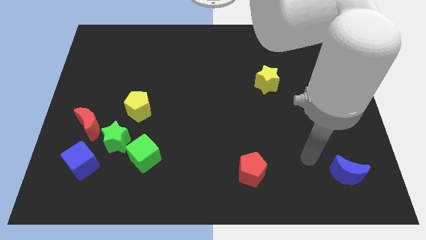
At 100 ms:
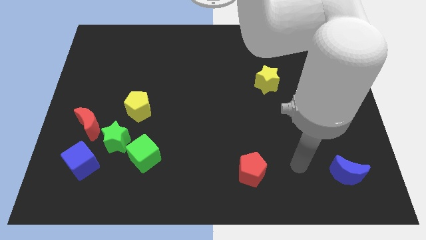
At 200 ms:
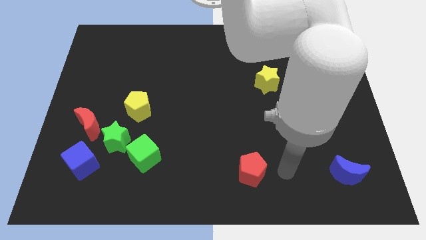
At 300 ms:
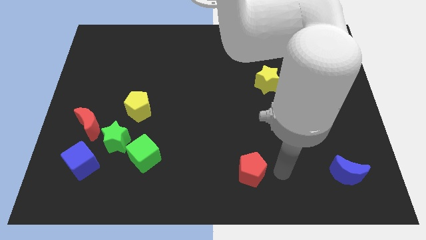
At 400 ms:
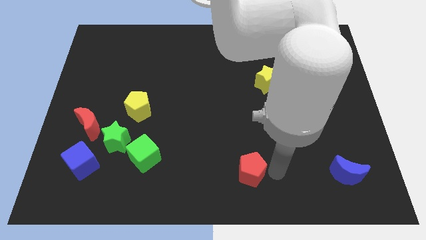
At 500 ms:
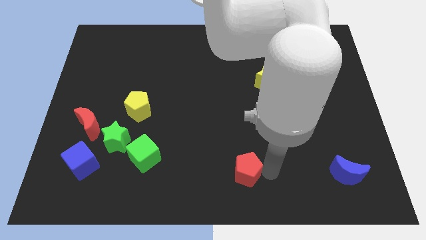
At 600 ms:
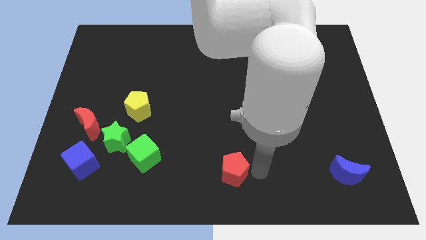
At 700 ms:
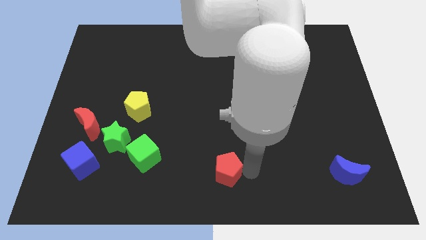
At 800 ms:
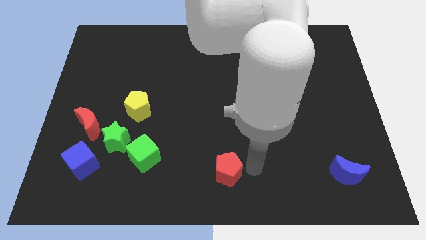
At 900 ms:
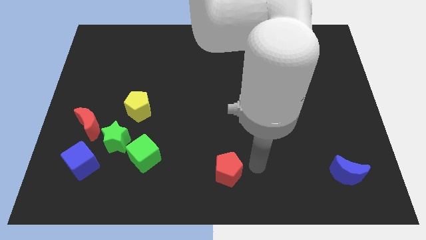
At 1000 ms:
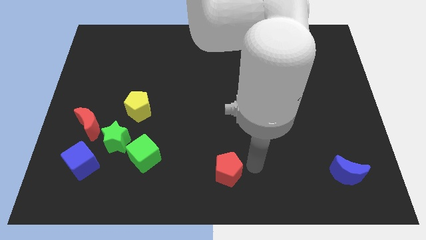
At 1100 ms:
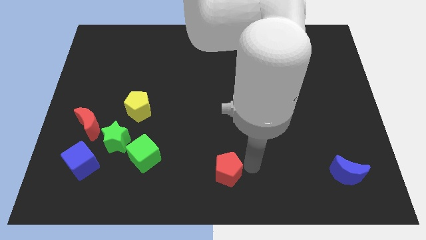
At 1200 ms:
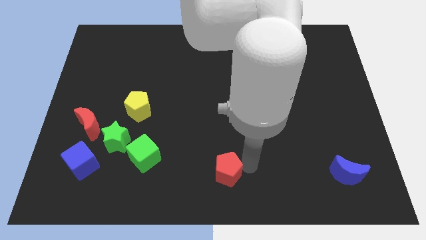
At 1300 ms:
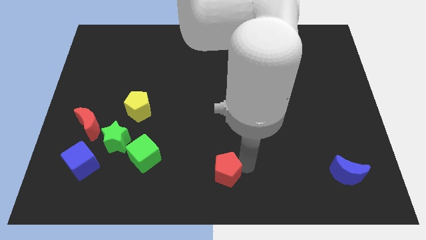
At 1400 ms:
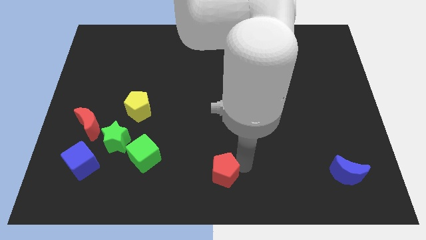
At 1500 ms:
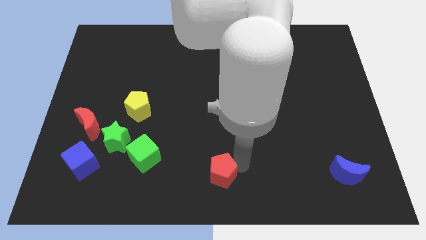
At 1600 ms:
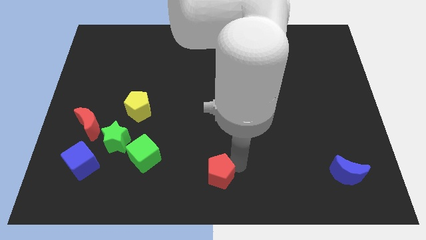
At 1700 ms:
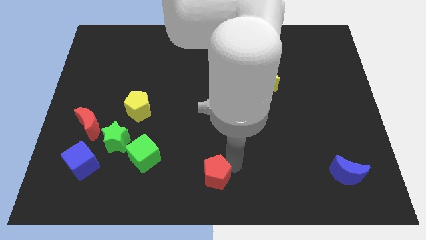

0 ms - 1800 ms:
push the red pentagon left somewhat

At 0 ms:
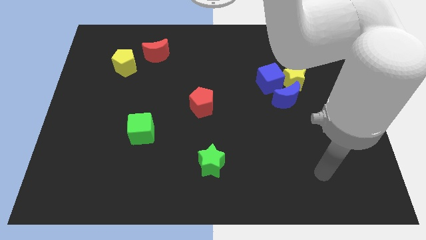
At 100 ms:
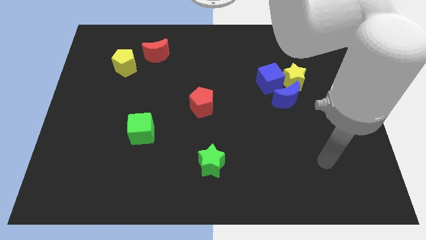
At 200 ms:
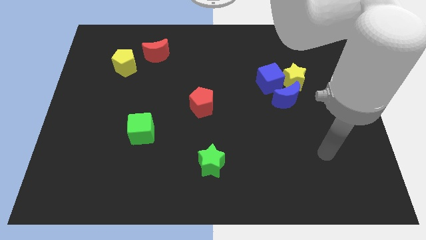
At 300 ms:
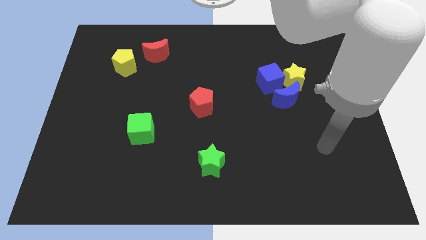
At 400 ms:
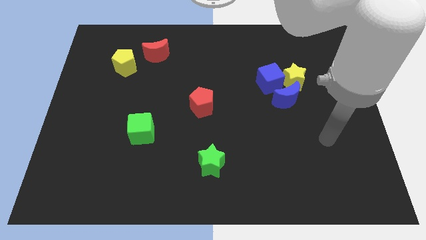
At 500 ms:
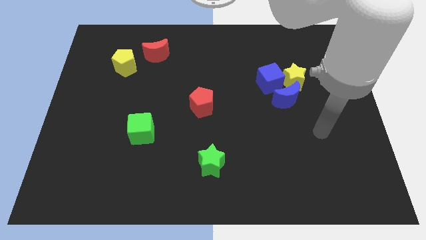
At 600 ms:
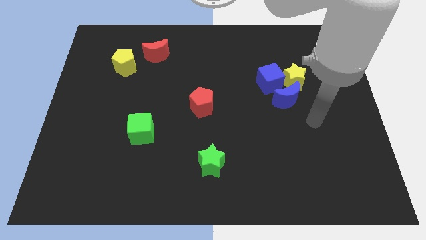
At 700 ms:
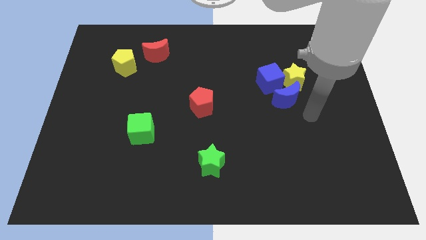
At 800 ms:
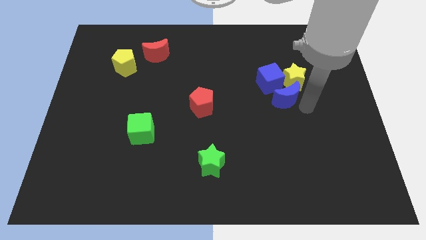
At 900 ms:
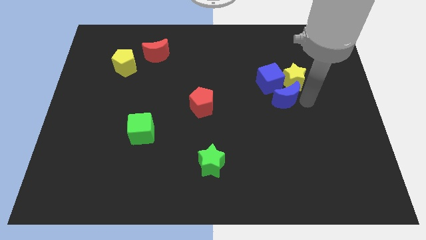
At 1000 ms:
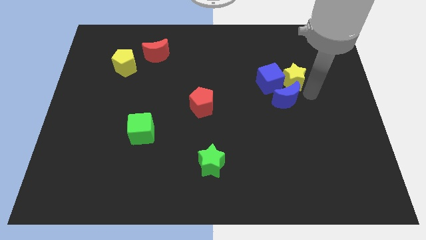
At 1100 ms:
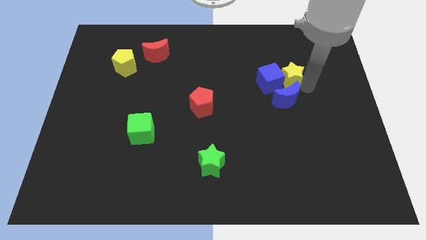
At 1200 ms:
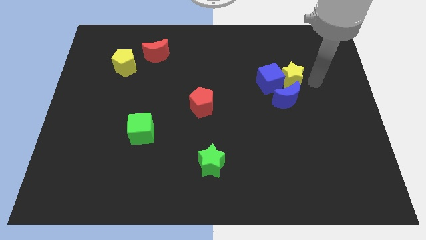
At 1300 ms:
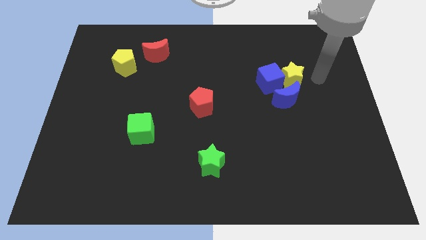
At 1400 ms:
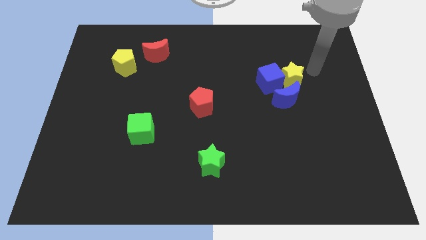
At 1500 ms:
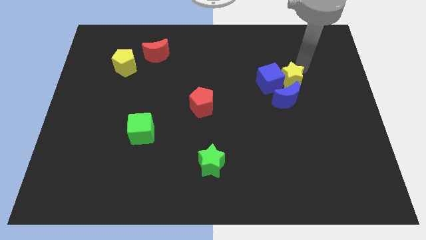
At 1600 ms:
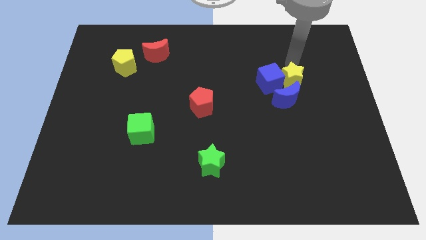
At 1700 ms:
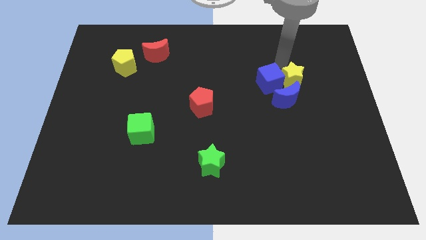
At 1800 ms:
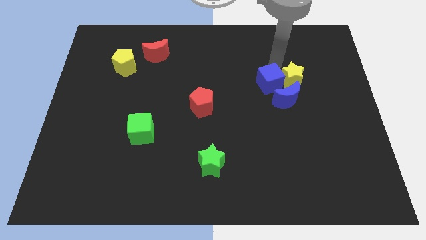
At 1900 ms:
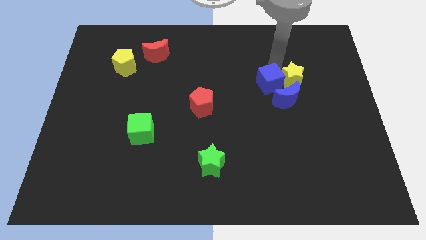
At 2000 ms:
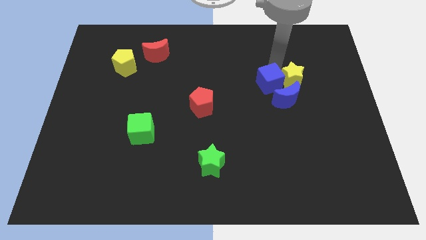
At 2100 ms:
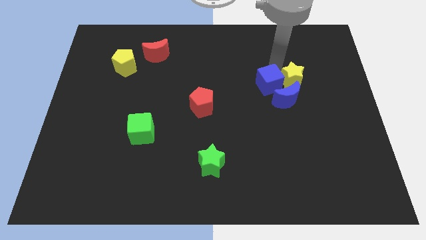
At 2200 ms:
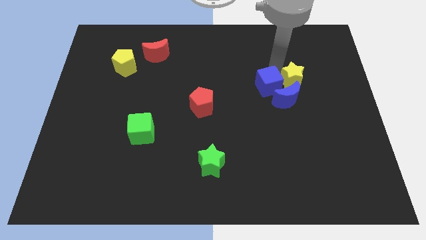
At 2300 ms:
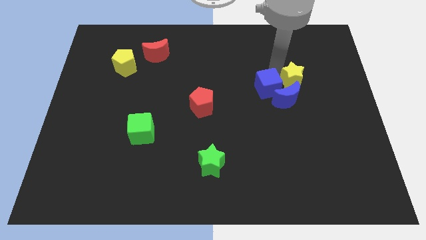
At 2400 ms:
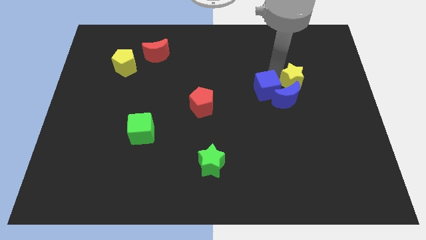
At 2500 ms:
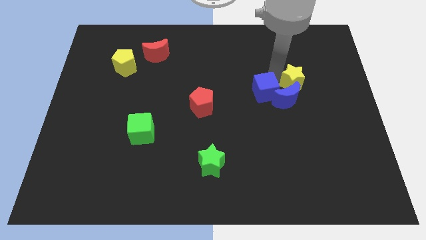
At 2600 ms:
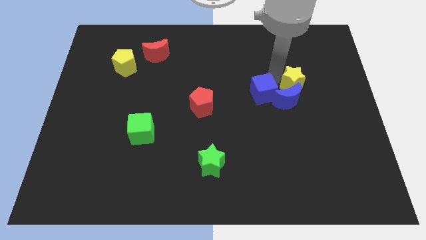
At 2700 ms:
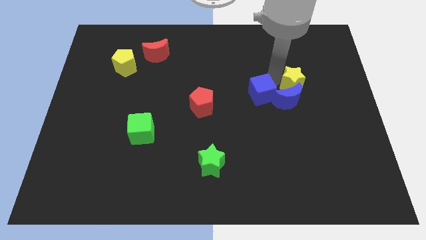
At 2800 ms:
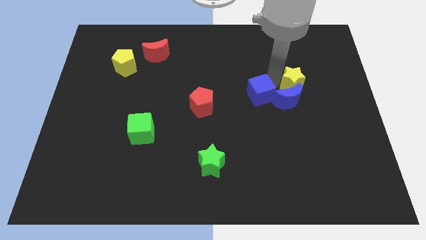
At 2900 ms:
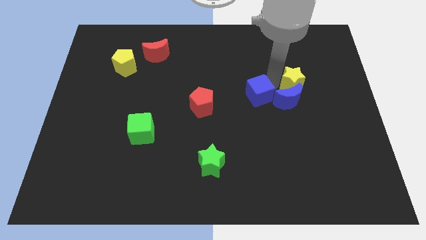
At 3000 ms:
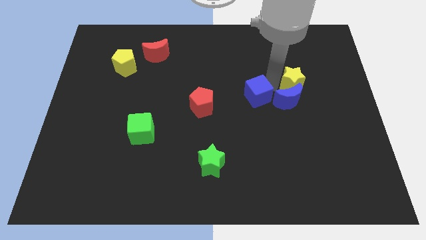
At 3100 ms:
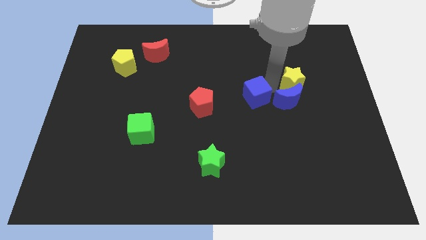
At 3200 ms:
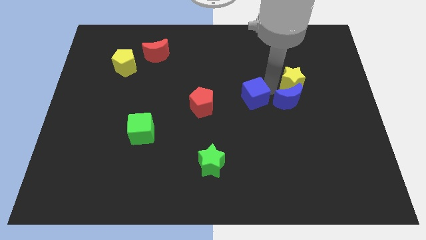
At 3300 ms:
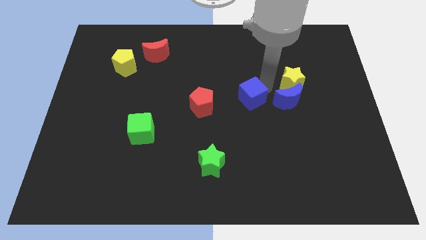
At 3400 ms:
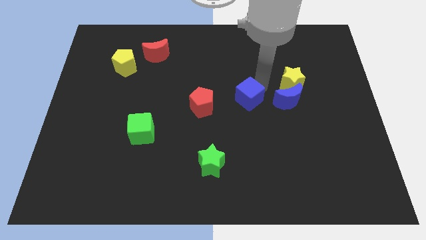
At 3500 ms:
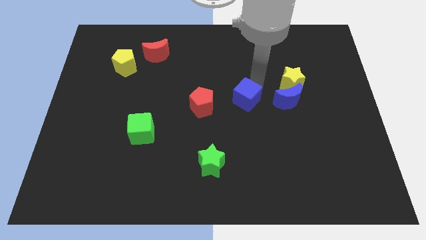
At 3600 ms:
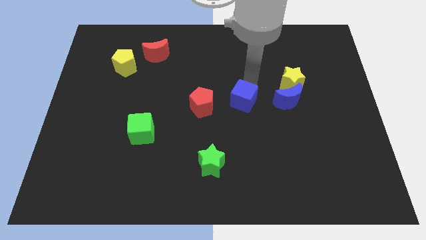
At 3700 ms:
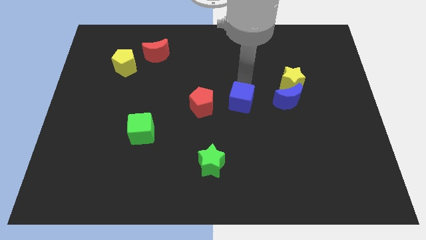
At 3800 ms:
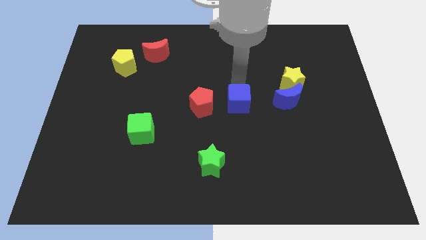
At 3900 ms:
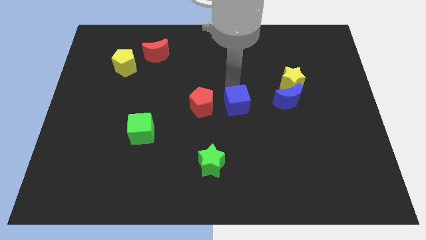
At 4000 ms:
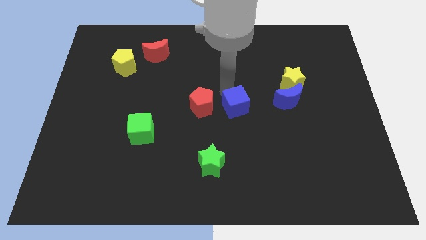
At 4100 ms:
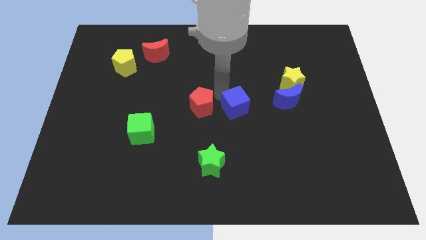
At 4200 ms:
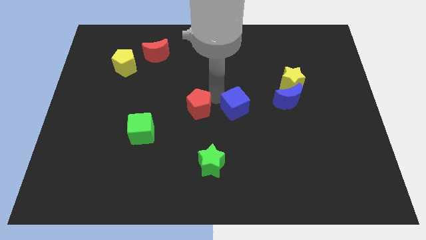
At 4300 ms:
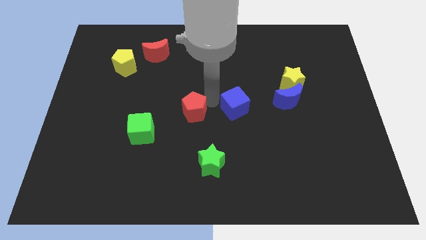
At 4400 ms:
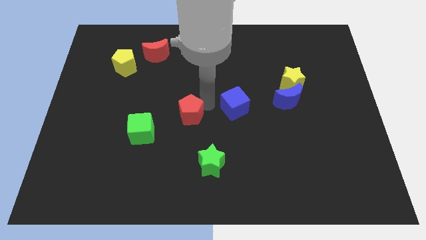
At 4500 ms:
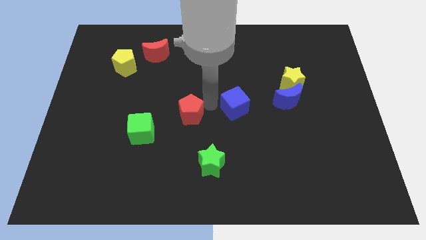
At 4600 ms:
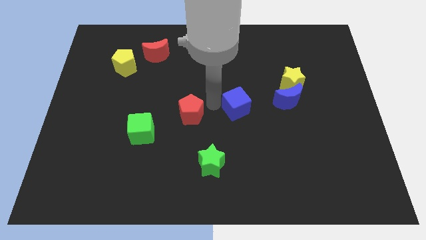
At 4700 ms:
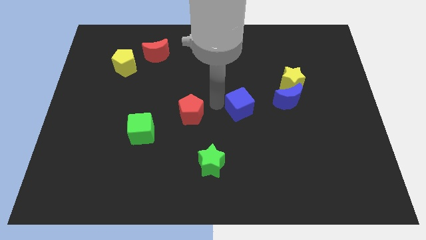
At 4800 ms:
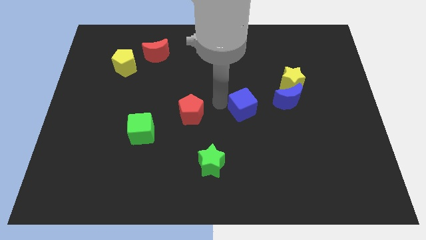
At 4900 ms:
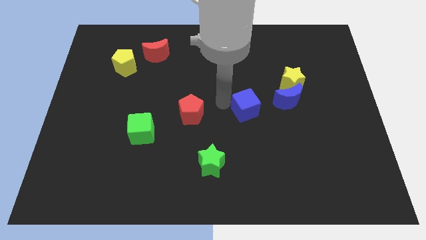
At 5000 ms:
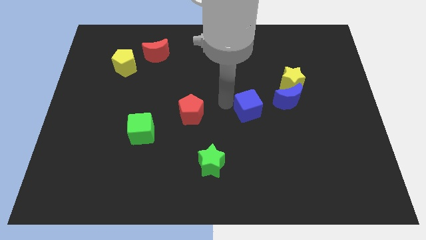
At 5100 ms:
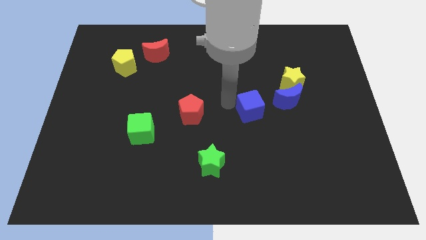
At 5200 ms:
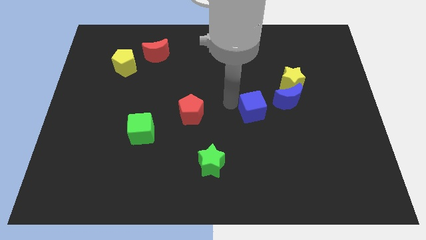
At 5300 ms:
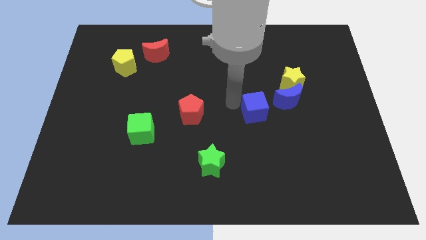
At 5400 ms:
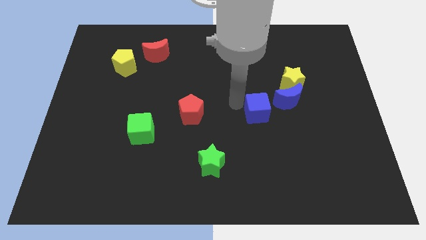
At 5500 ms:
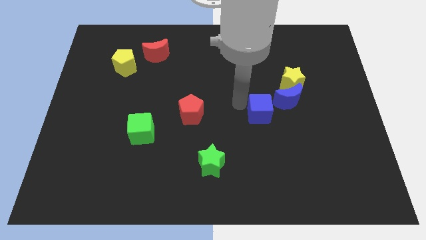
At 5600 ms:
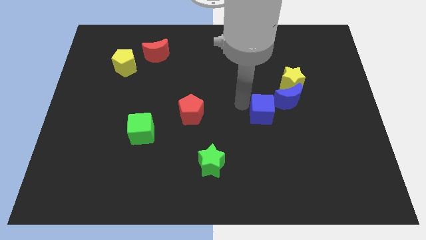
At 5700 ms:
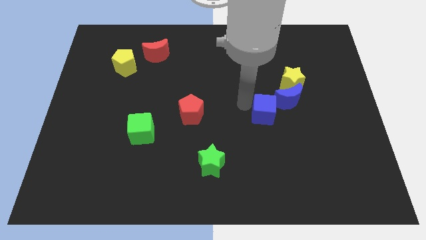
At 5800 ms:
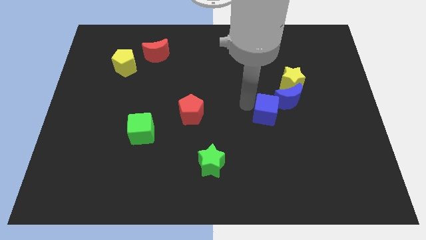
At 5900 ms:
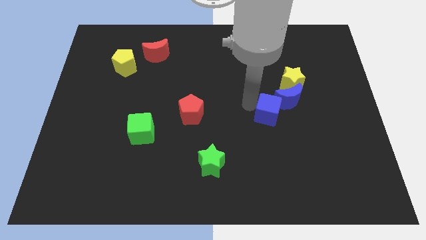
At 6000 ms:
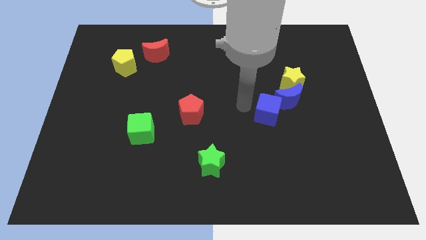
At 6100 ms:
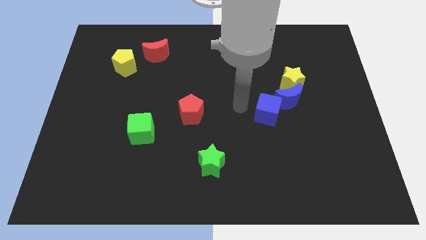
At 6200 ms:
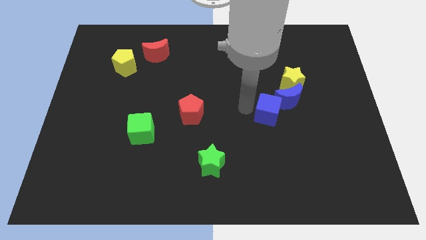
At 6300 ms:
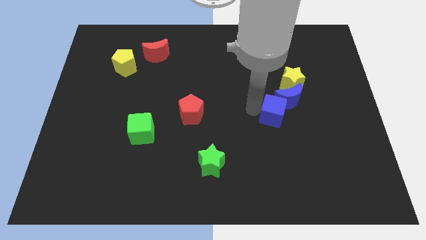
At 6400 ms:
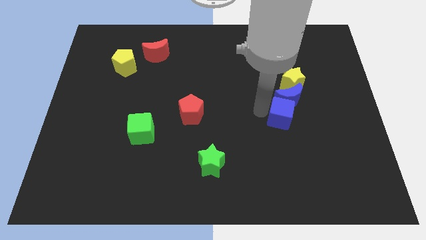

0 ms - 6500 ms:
slightly push the blue cube downwards and then to the right

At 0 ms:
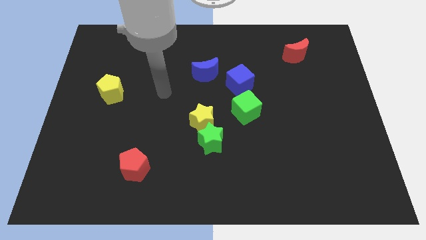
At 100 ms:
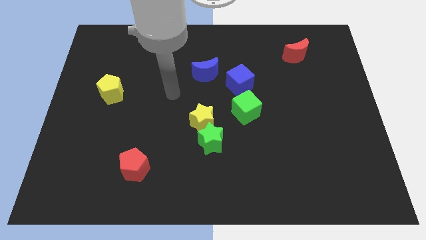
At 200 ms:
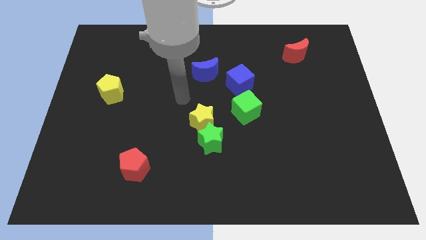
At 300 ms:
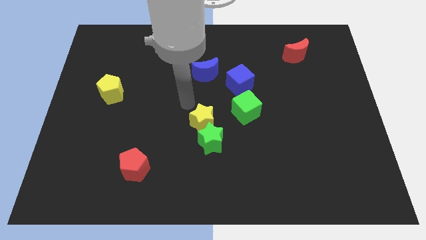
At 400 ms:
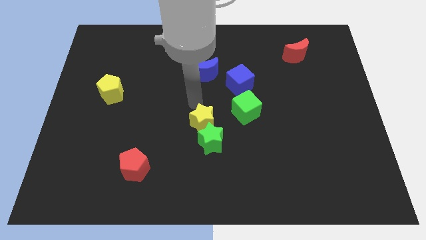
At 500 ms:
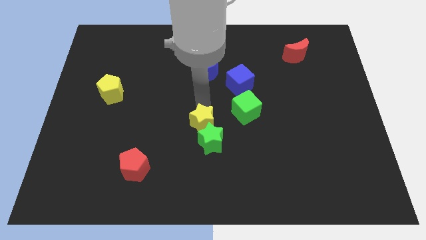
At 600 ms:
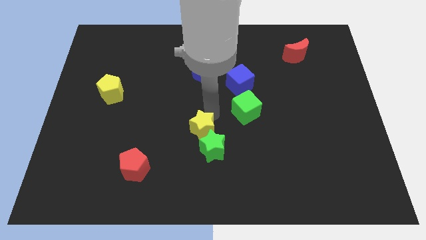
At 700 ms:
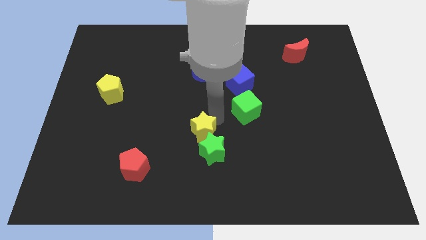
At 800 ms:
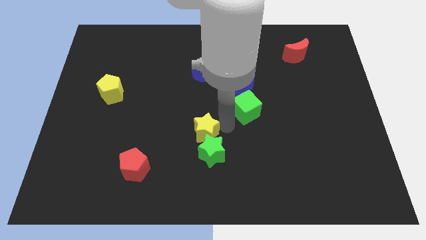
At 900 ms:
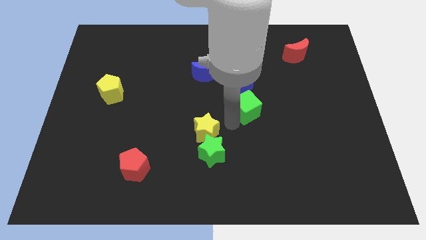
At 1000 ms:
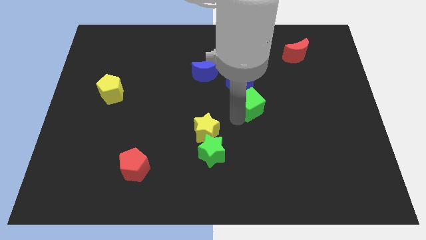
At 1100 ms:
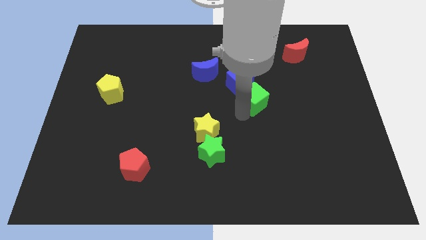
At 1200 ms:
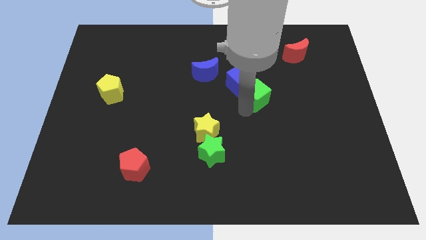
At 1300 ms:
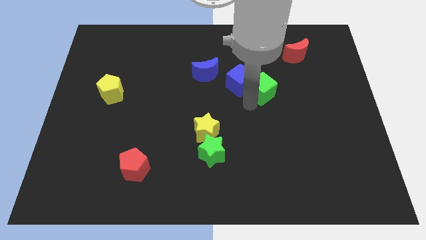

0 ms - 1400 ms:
slightly move the green cube up and to the right
